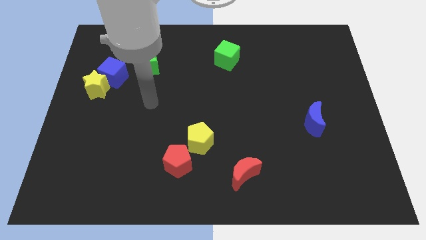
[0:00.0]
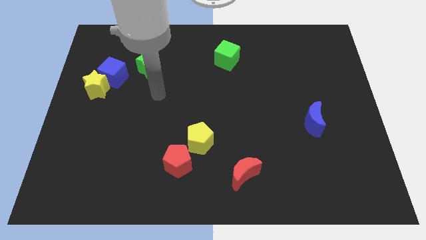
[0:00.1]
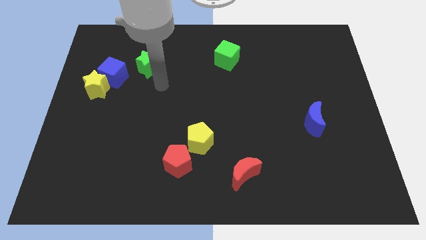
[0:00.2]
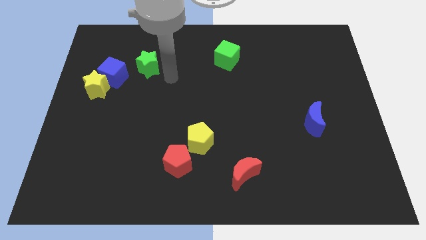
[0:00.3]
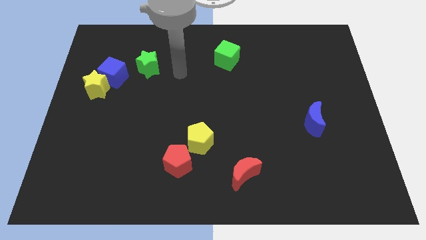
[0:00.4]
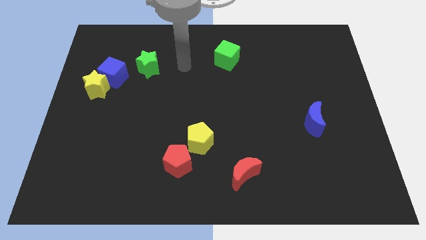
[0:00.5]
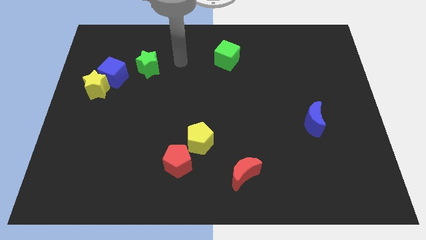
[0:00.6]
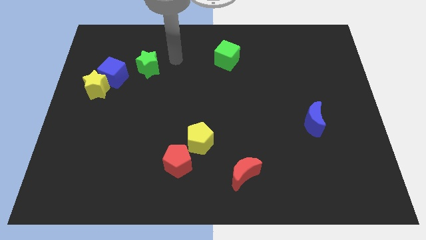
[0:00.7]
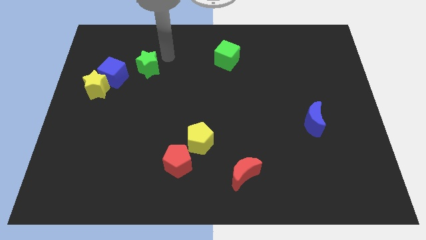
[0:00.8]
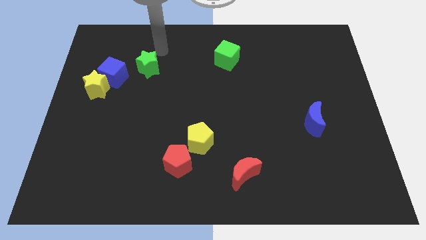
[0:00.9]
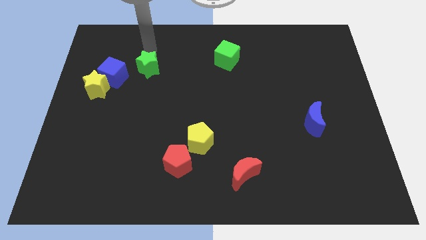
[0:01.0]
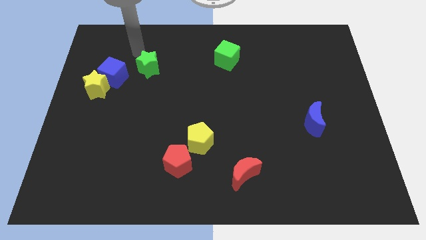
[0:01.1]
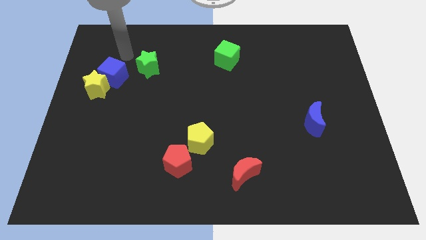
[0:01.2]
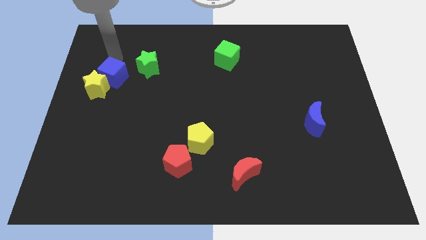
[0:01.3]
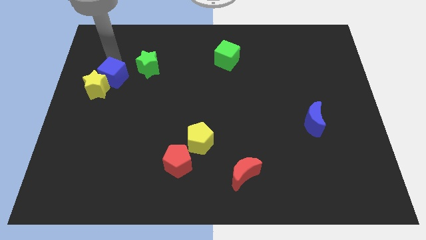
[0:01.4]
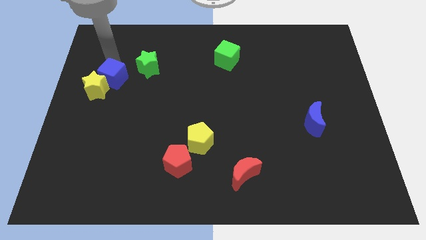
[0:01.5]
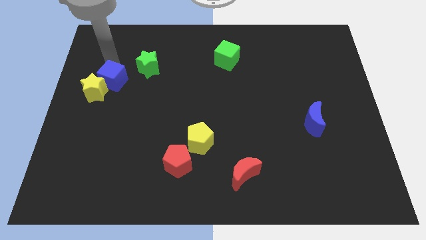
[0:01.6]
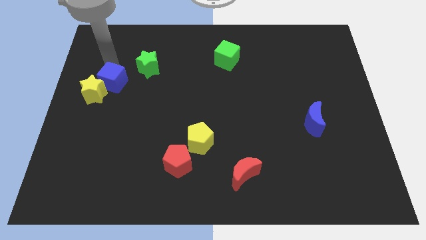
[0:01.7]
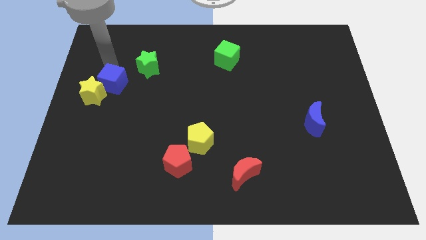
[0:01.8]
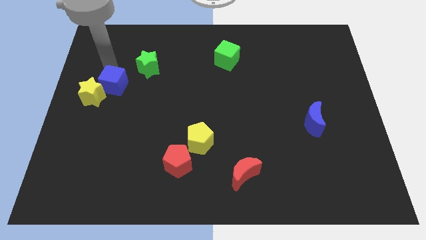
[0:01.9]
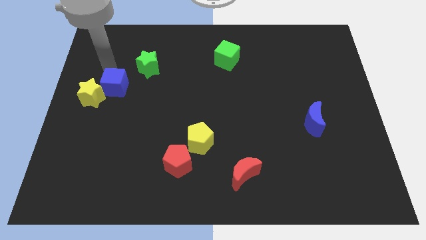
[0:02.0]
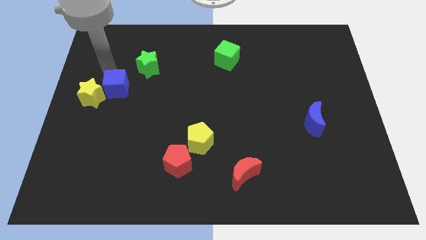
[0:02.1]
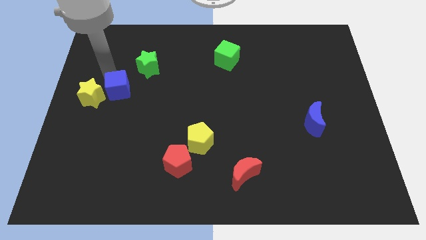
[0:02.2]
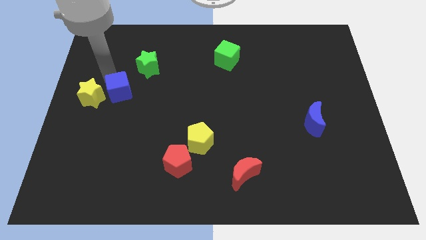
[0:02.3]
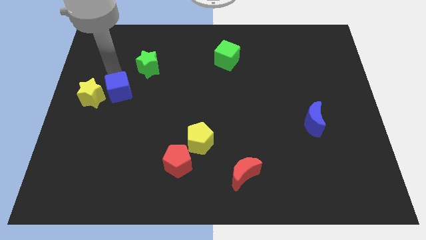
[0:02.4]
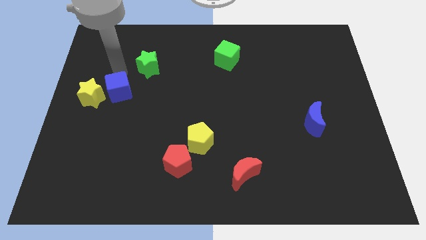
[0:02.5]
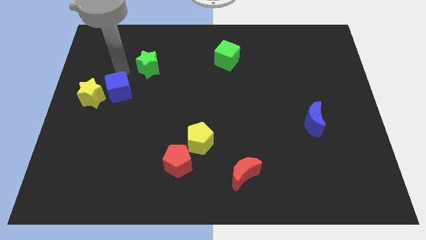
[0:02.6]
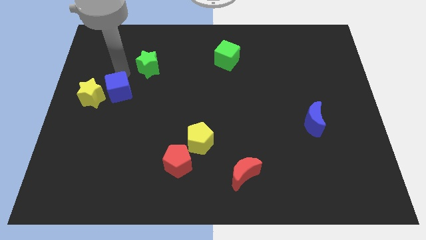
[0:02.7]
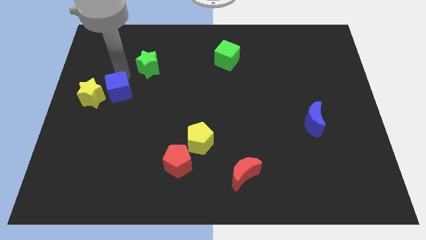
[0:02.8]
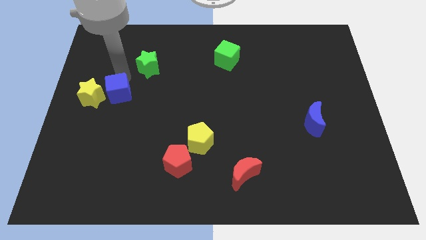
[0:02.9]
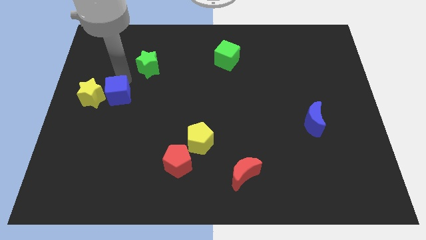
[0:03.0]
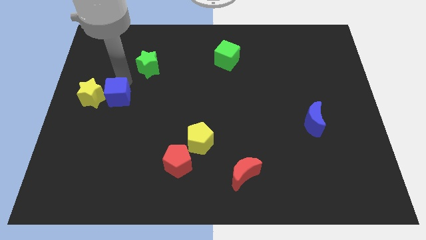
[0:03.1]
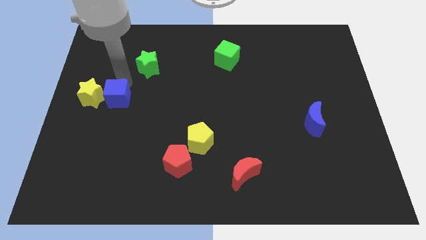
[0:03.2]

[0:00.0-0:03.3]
move the blue cube a bit downwards

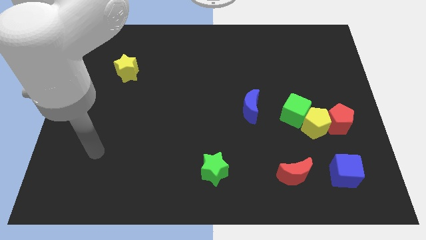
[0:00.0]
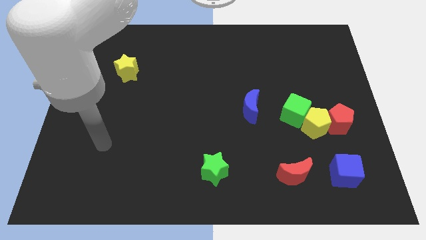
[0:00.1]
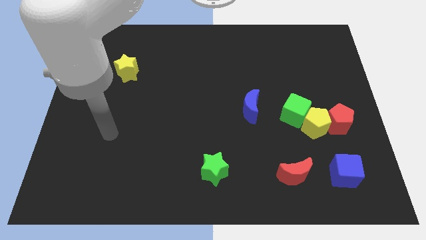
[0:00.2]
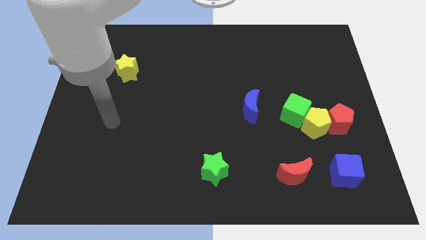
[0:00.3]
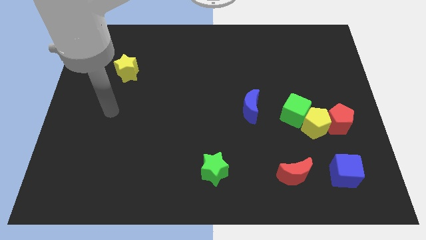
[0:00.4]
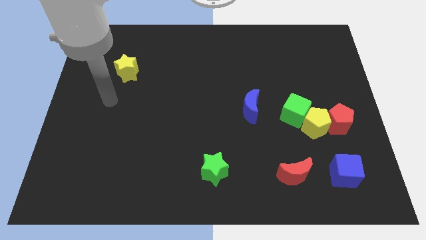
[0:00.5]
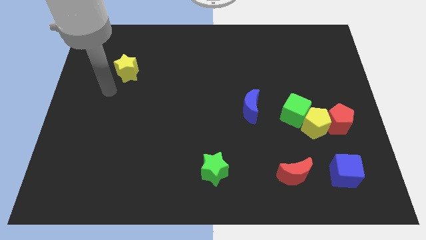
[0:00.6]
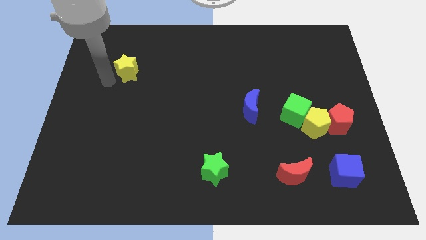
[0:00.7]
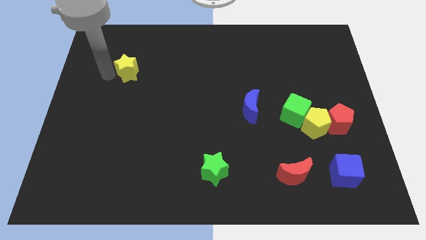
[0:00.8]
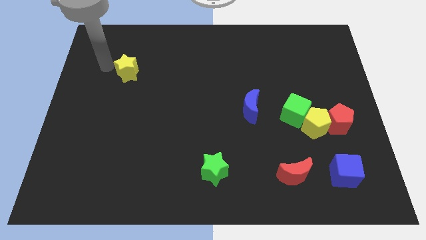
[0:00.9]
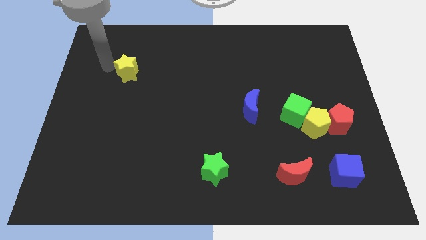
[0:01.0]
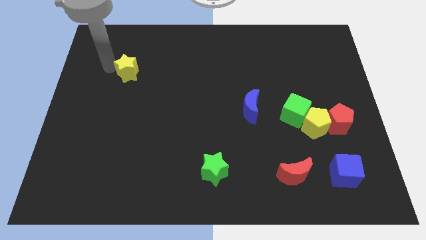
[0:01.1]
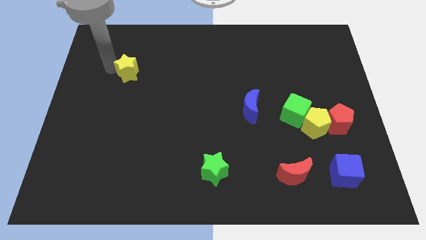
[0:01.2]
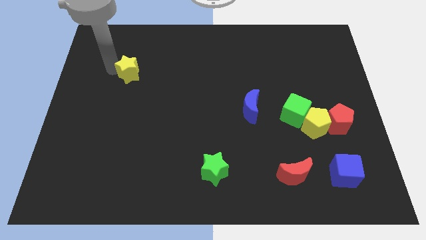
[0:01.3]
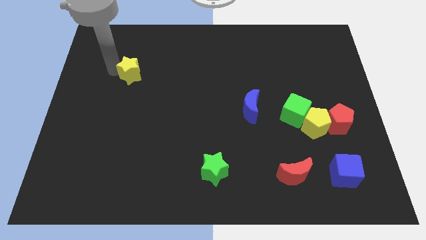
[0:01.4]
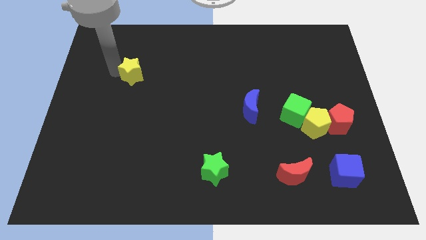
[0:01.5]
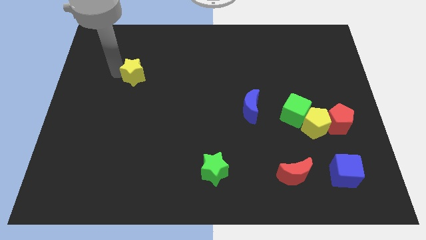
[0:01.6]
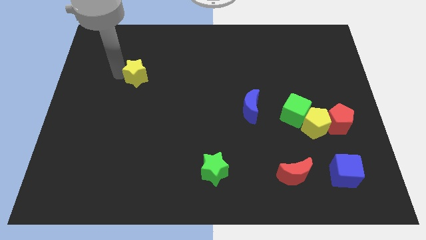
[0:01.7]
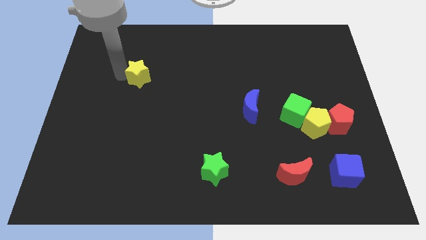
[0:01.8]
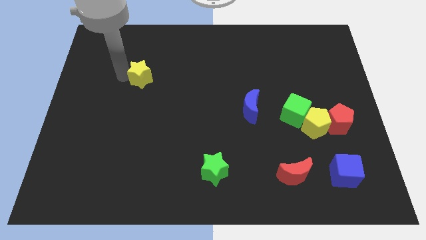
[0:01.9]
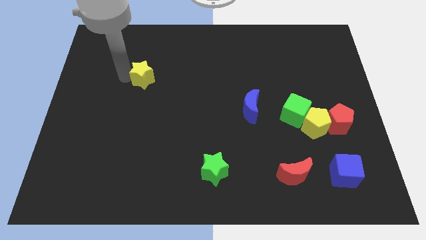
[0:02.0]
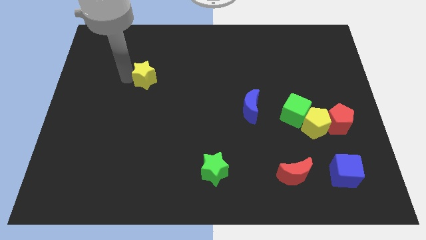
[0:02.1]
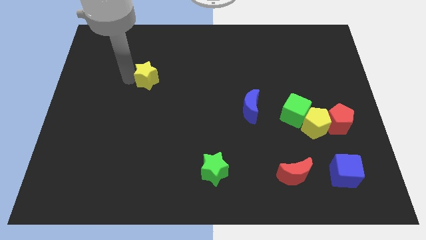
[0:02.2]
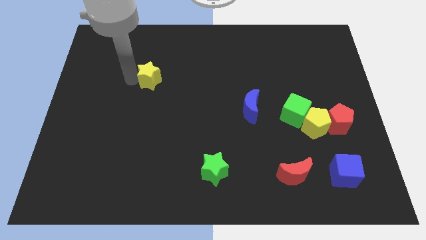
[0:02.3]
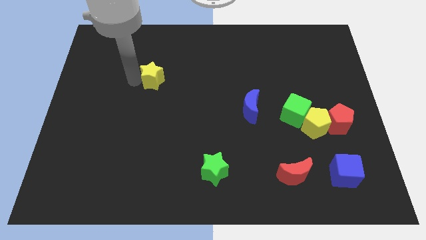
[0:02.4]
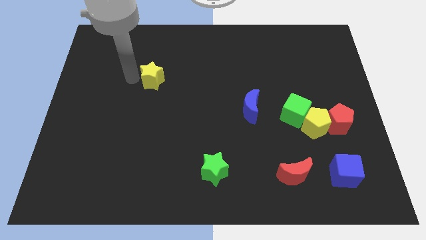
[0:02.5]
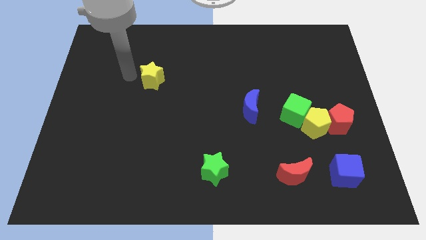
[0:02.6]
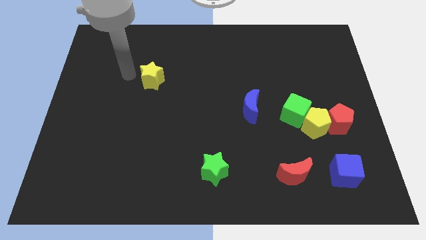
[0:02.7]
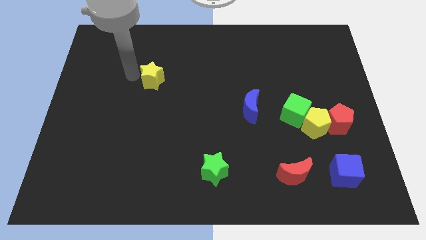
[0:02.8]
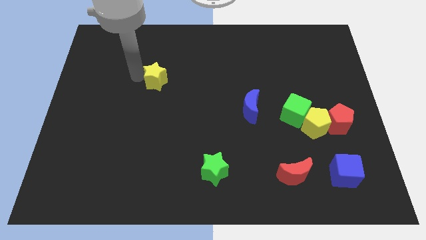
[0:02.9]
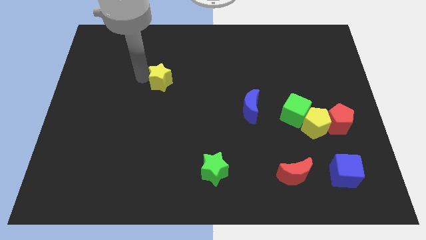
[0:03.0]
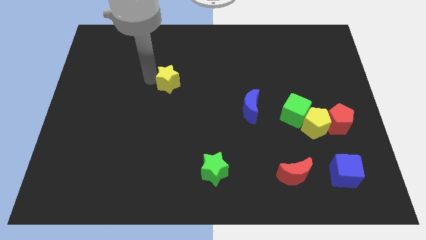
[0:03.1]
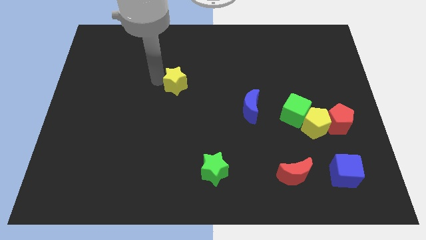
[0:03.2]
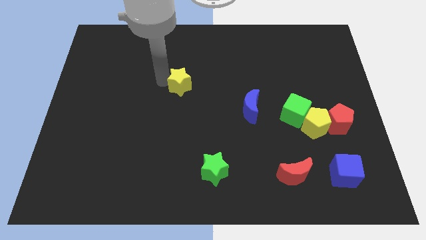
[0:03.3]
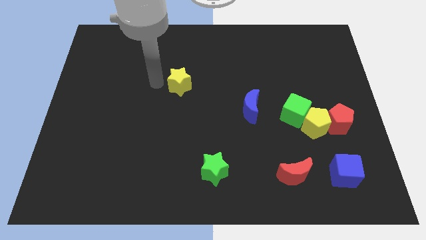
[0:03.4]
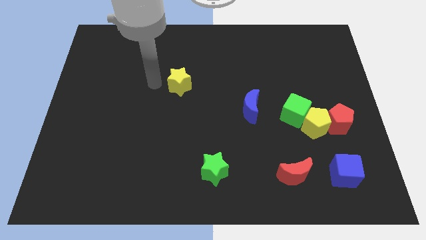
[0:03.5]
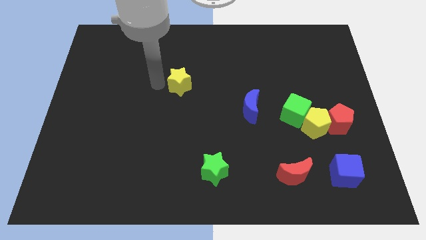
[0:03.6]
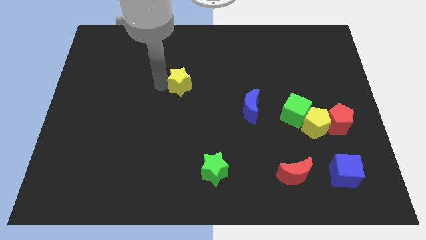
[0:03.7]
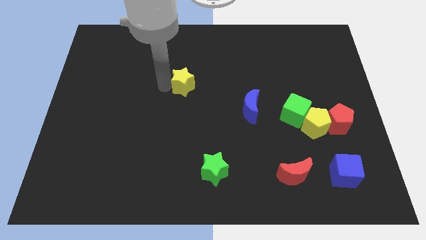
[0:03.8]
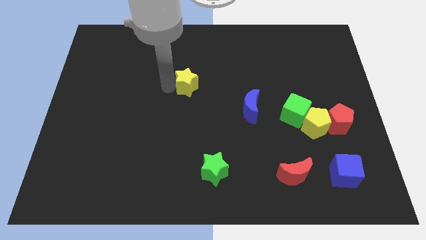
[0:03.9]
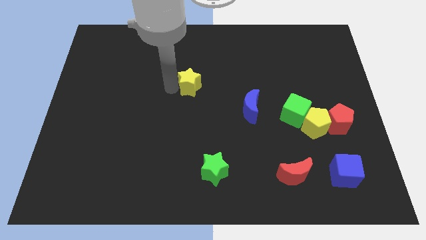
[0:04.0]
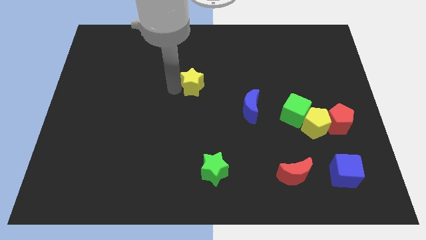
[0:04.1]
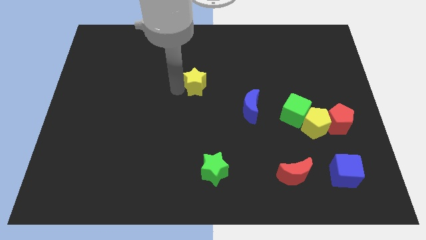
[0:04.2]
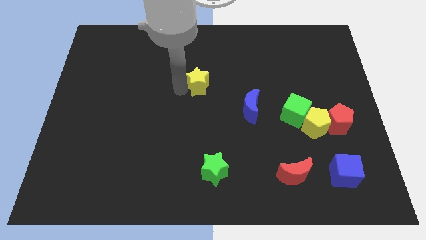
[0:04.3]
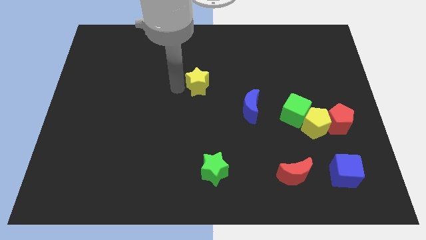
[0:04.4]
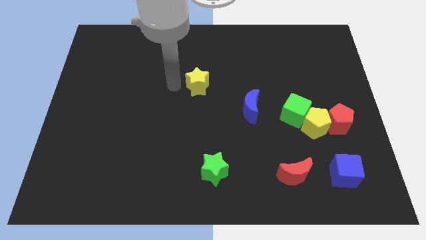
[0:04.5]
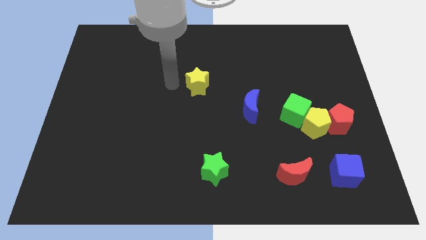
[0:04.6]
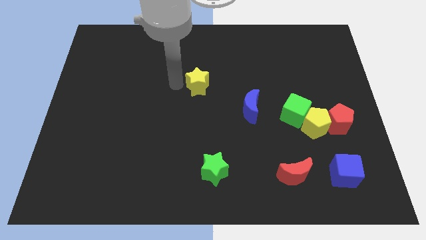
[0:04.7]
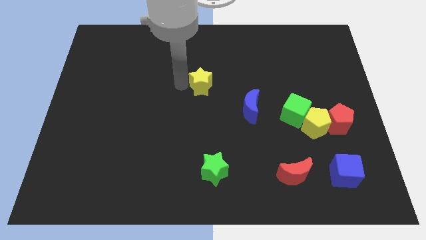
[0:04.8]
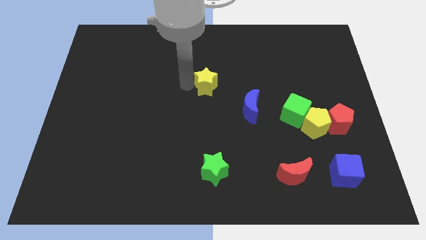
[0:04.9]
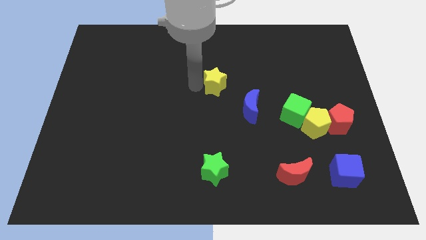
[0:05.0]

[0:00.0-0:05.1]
slide the yellow star right
